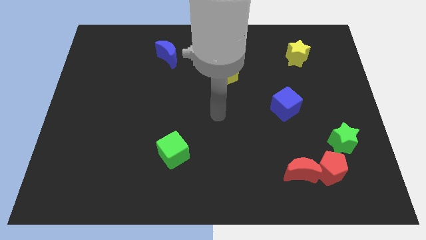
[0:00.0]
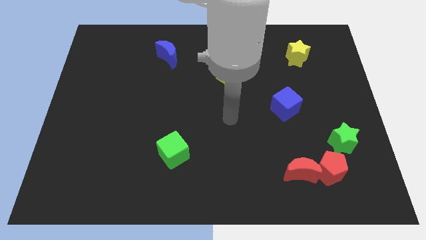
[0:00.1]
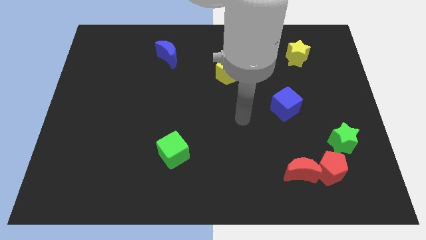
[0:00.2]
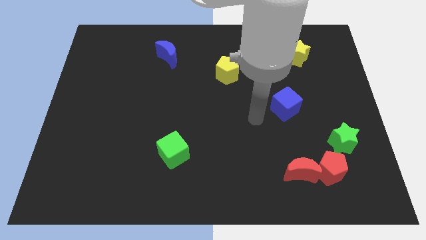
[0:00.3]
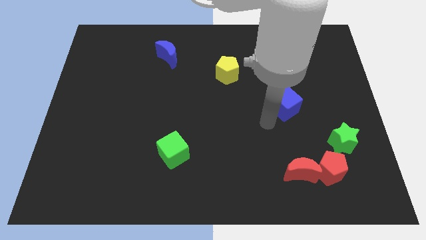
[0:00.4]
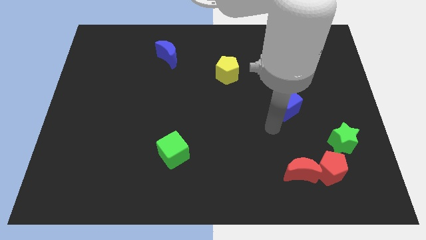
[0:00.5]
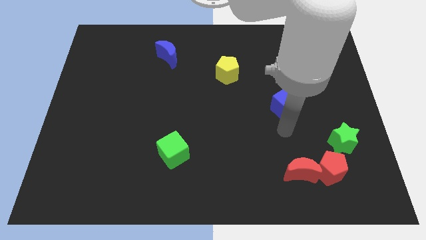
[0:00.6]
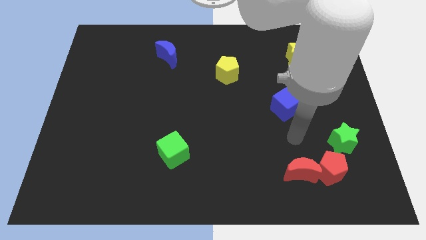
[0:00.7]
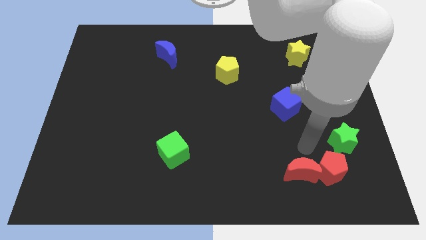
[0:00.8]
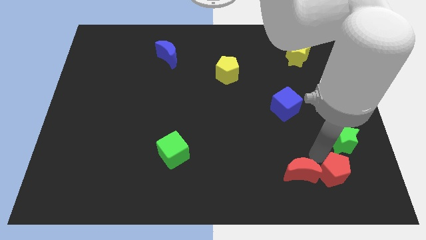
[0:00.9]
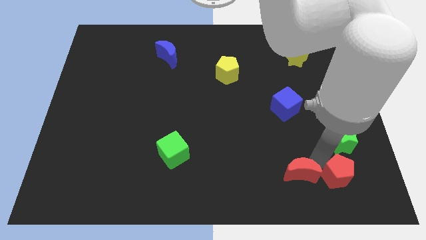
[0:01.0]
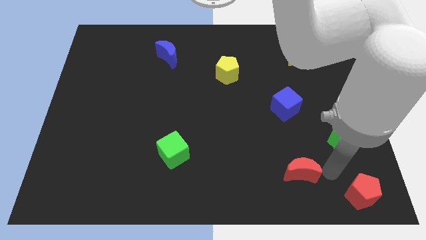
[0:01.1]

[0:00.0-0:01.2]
pull the red moon apart from the red pentagon

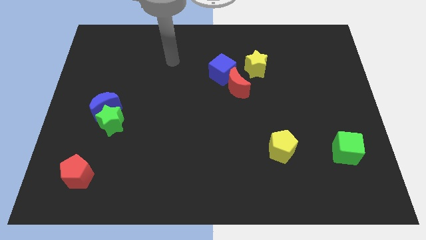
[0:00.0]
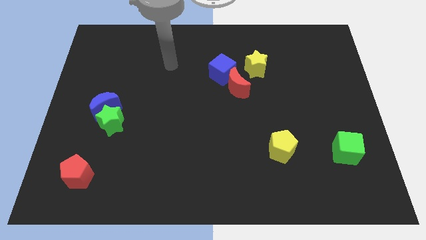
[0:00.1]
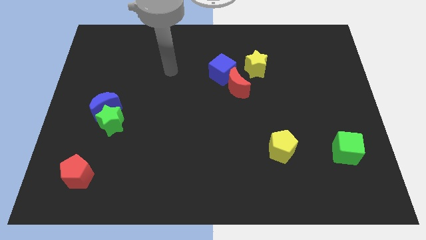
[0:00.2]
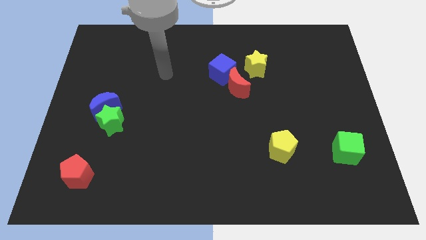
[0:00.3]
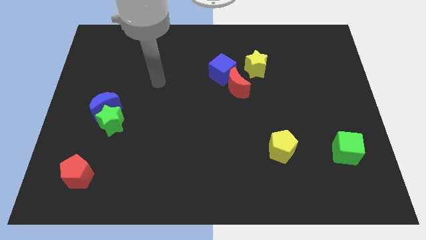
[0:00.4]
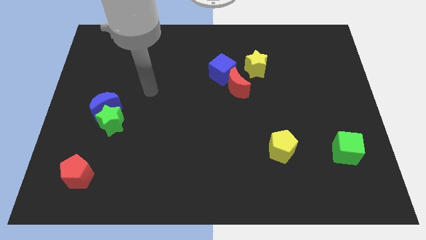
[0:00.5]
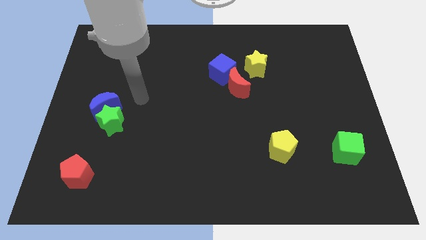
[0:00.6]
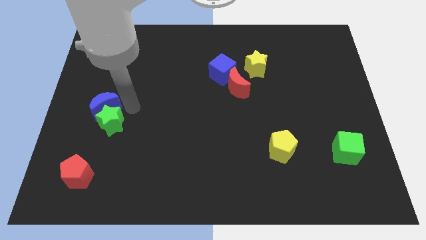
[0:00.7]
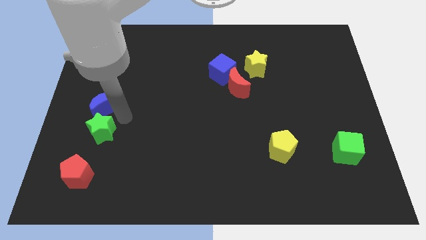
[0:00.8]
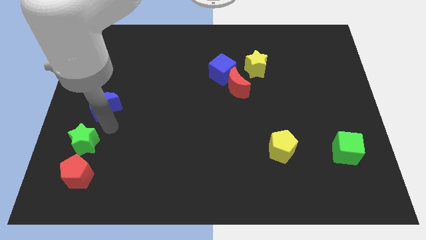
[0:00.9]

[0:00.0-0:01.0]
separate the blue moon from the green star

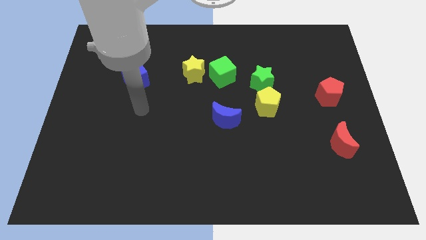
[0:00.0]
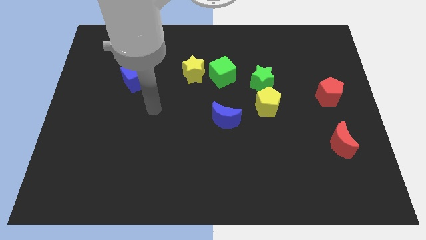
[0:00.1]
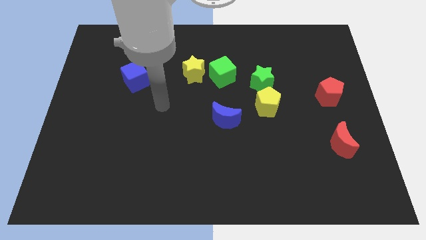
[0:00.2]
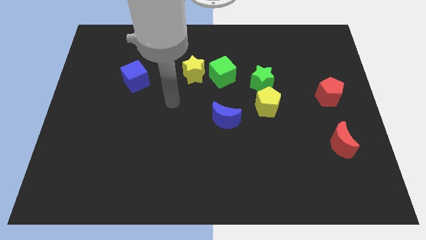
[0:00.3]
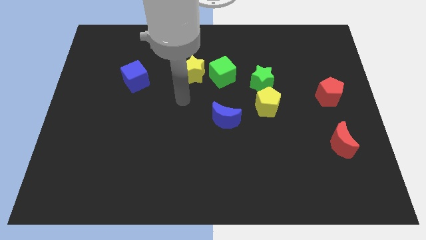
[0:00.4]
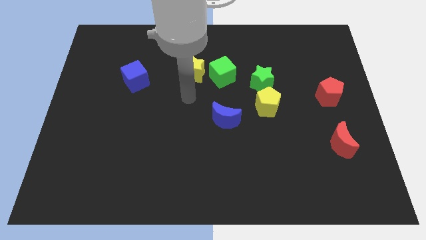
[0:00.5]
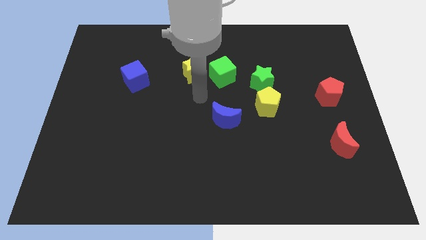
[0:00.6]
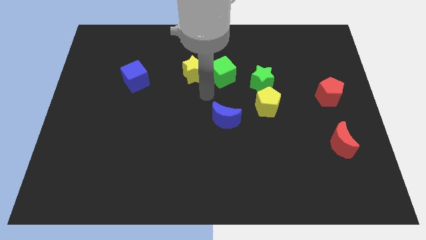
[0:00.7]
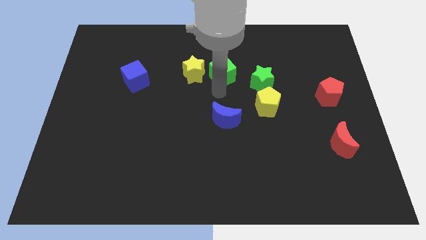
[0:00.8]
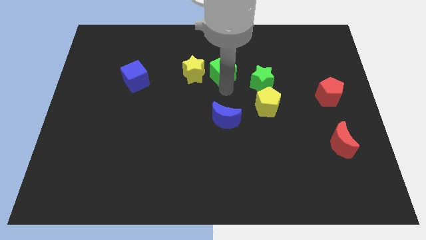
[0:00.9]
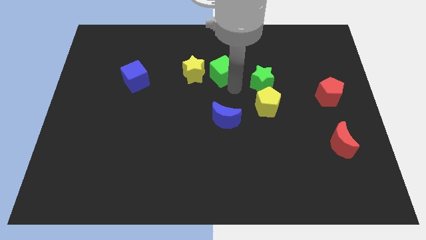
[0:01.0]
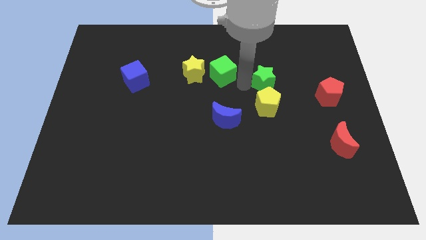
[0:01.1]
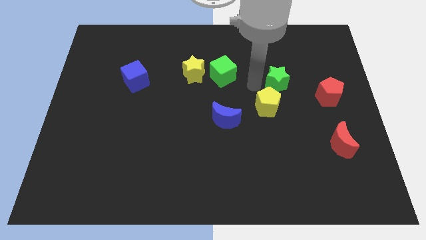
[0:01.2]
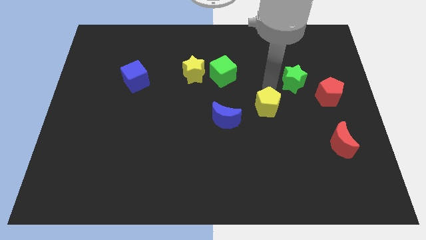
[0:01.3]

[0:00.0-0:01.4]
separate the yellow pentagon from the green star

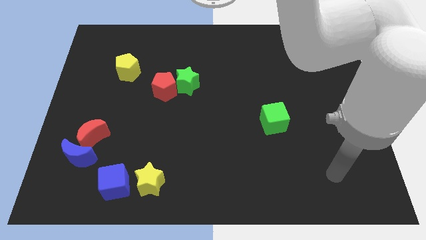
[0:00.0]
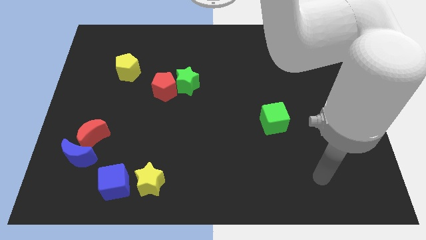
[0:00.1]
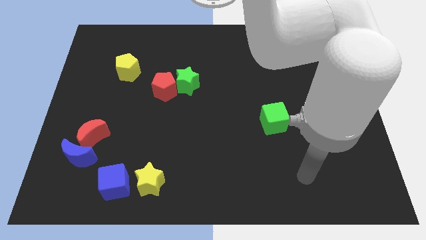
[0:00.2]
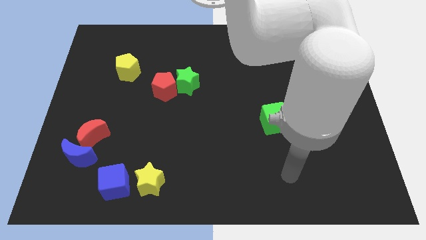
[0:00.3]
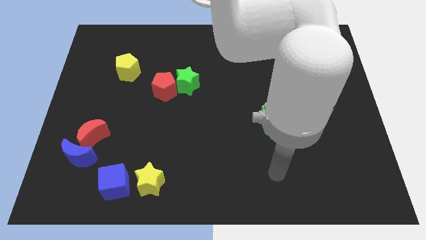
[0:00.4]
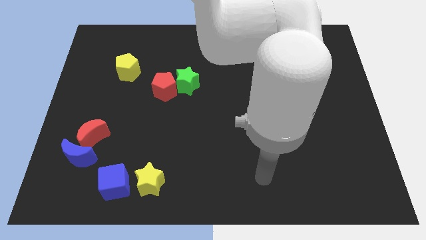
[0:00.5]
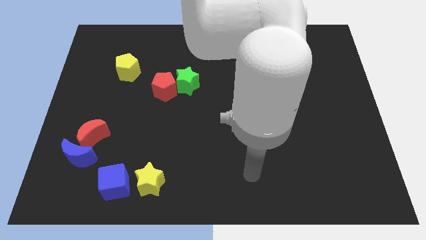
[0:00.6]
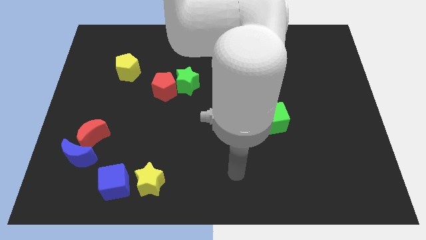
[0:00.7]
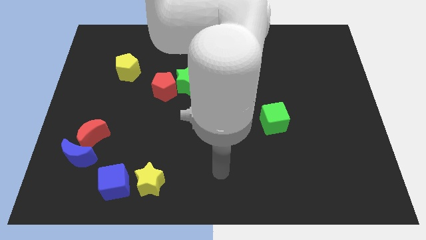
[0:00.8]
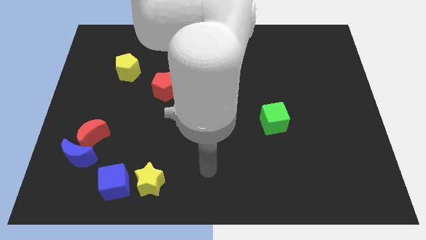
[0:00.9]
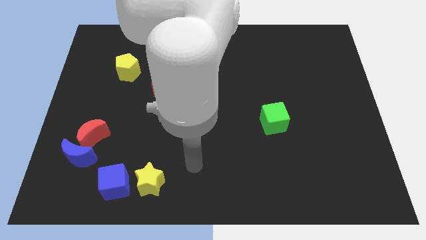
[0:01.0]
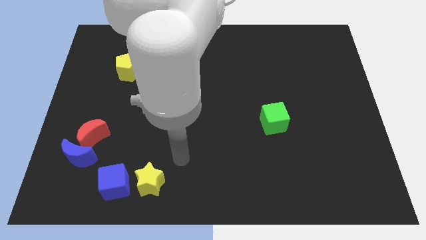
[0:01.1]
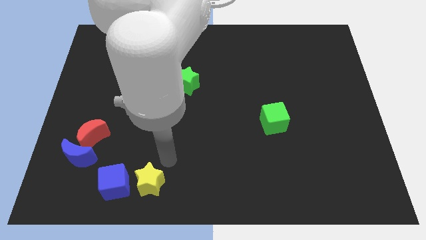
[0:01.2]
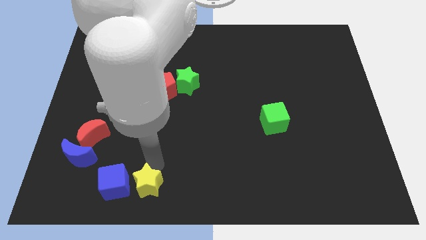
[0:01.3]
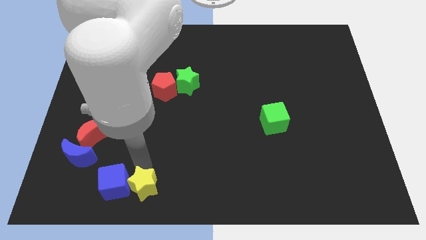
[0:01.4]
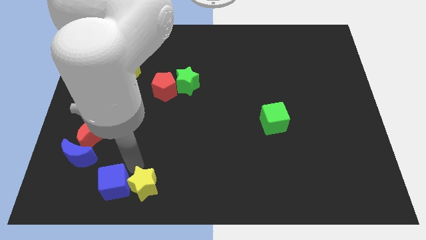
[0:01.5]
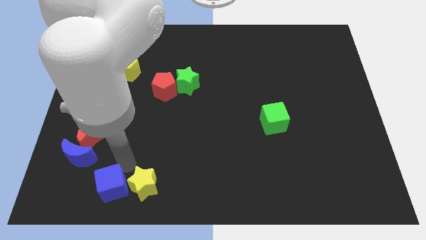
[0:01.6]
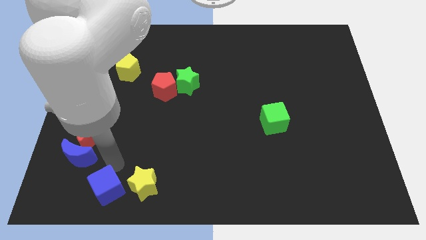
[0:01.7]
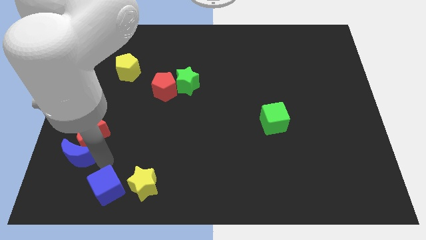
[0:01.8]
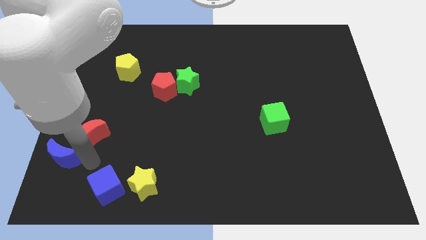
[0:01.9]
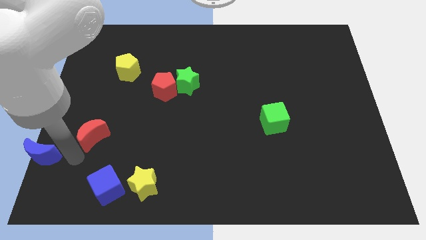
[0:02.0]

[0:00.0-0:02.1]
separate the red moon from the blue moon

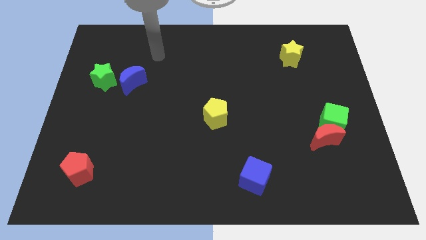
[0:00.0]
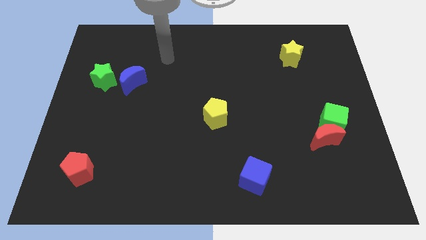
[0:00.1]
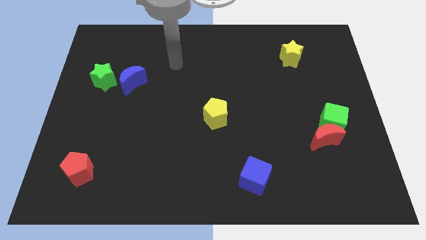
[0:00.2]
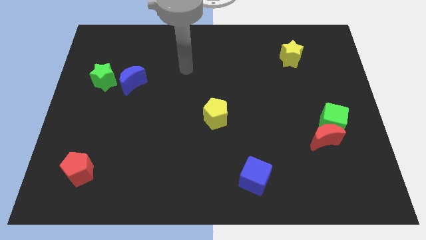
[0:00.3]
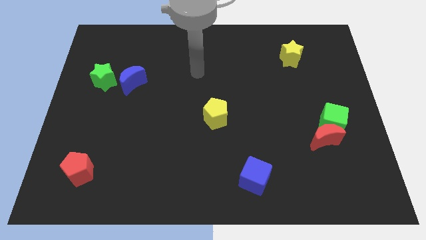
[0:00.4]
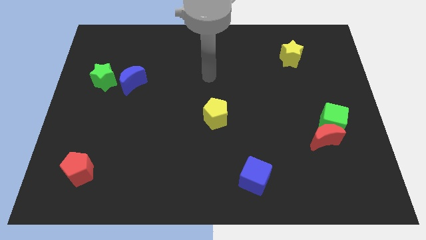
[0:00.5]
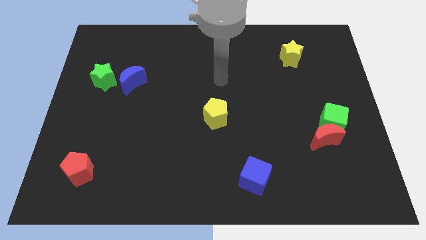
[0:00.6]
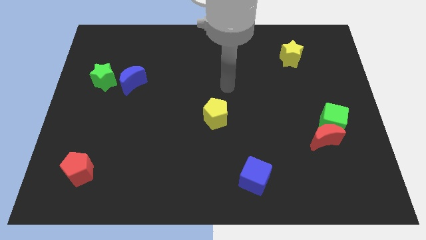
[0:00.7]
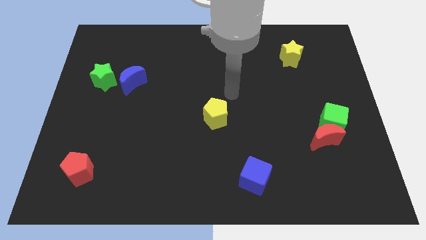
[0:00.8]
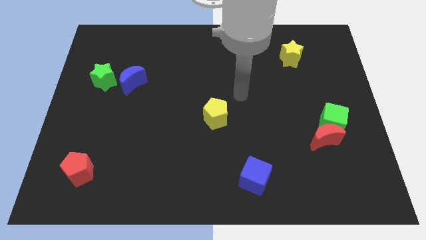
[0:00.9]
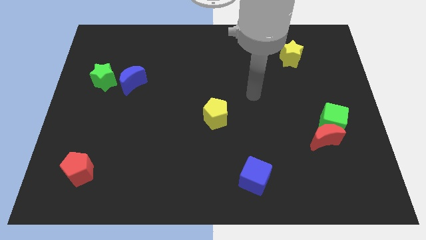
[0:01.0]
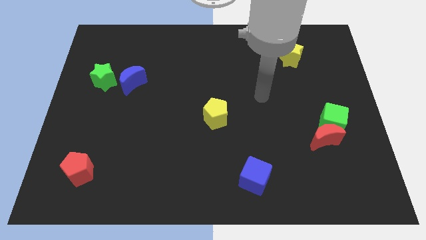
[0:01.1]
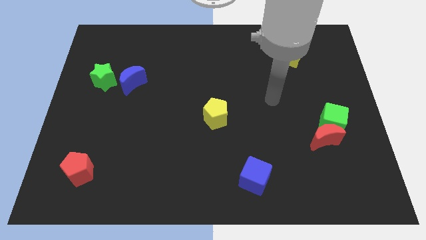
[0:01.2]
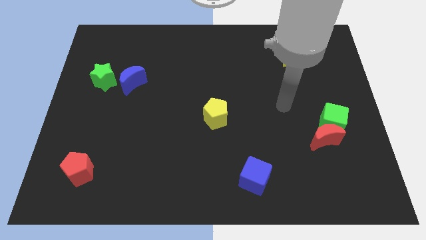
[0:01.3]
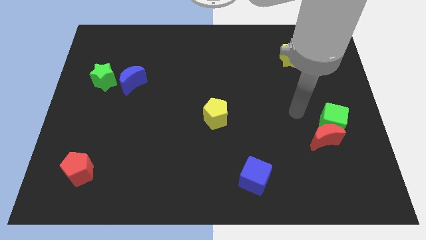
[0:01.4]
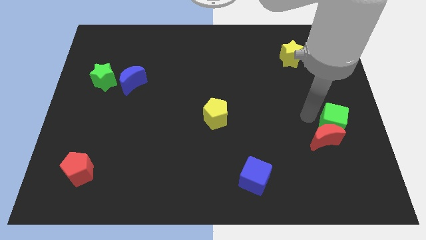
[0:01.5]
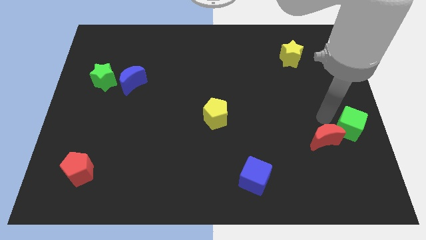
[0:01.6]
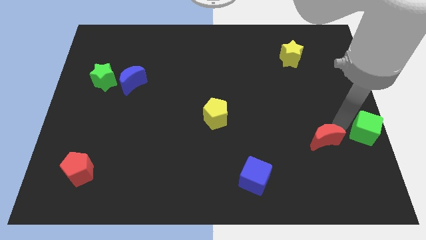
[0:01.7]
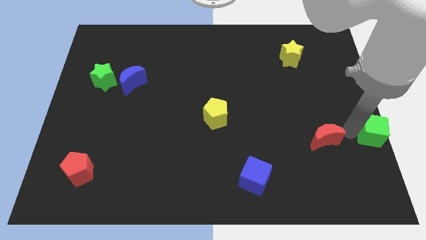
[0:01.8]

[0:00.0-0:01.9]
pull the red moon apart from the green cube

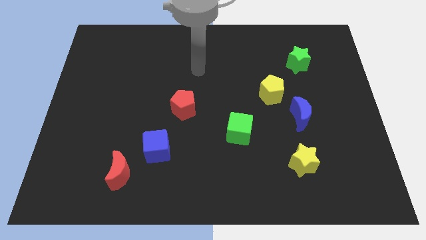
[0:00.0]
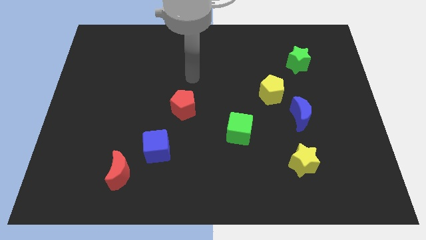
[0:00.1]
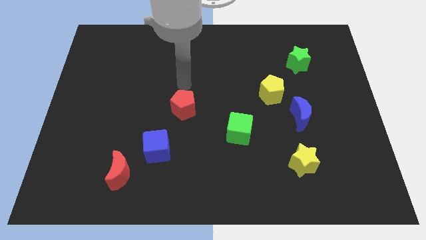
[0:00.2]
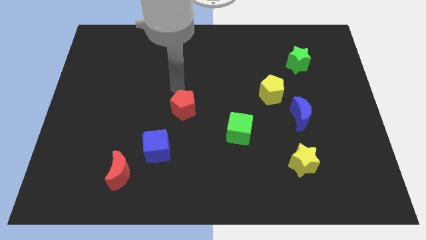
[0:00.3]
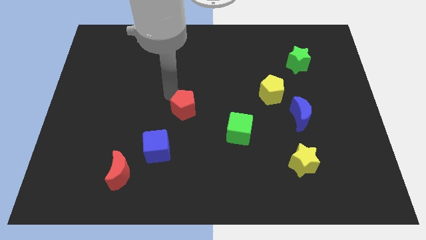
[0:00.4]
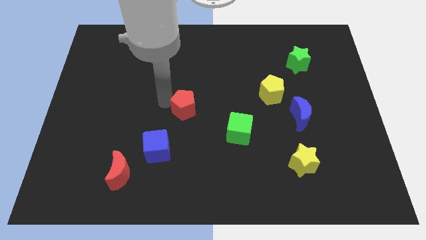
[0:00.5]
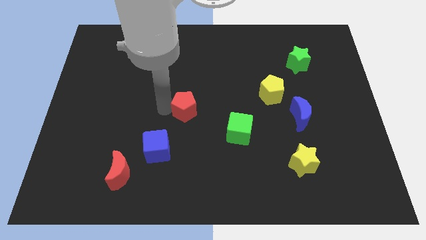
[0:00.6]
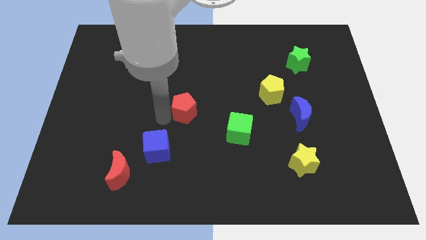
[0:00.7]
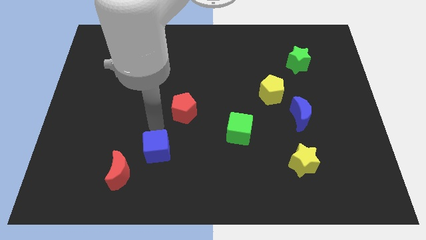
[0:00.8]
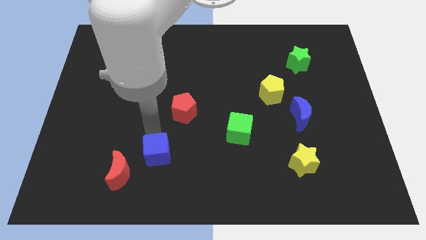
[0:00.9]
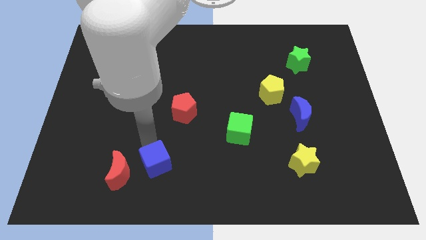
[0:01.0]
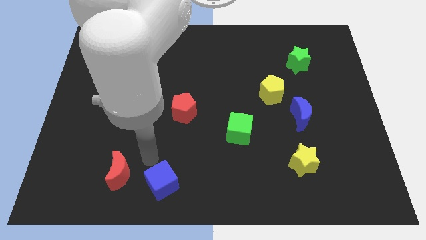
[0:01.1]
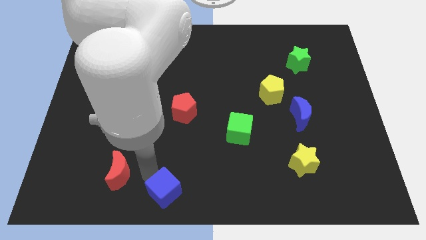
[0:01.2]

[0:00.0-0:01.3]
pull the red moon apart from the blue cube

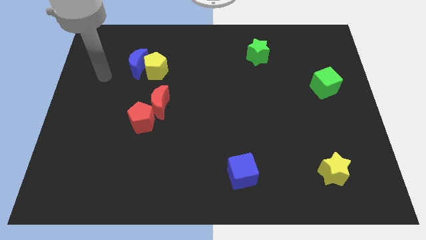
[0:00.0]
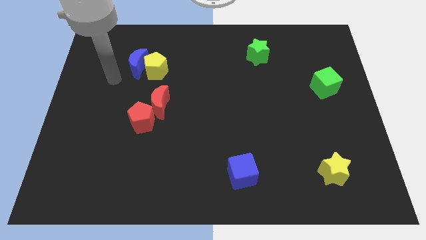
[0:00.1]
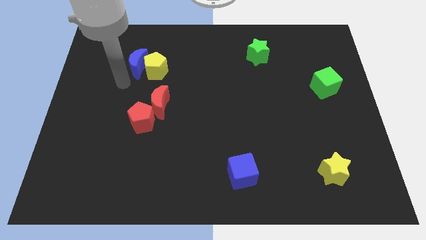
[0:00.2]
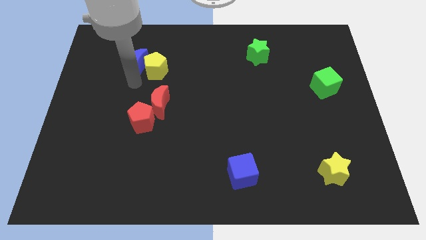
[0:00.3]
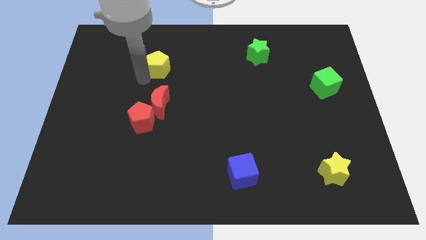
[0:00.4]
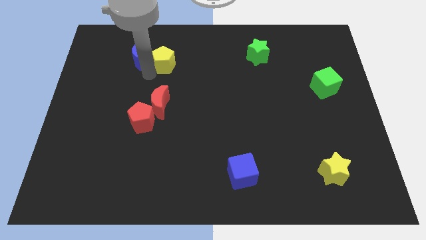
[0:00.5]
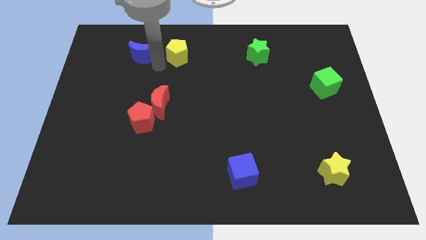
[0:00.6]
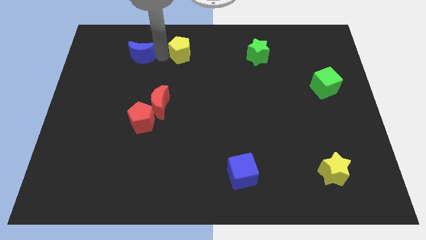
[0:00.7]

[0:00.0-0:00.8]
move the blue moon away from the yellow pentagon
